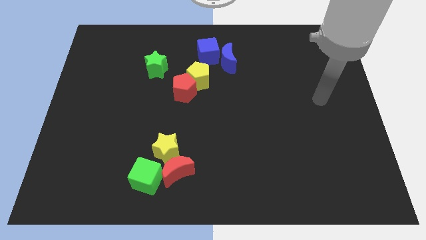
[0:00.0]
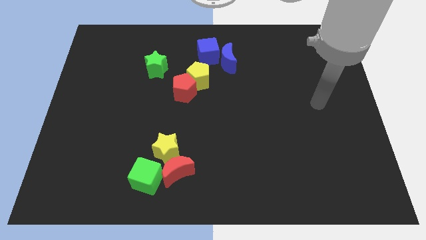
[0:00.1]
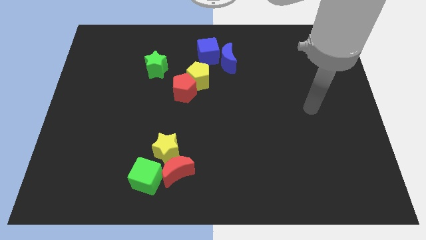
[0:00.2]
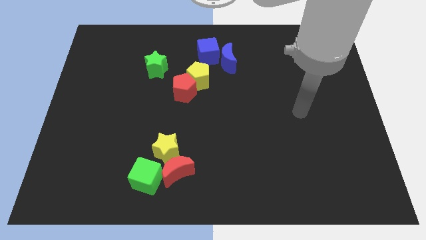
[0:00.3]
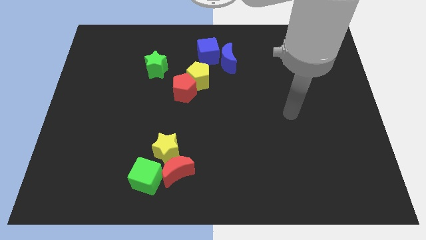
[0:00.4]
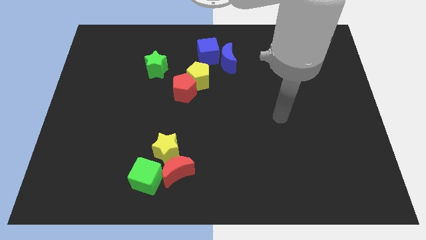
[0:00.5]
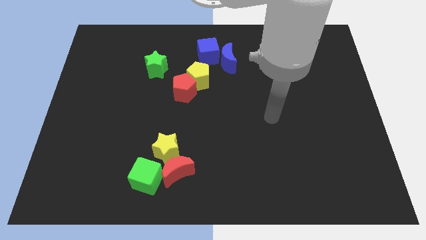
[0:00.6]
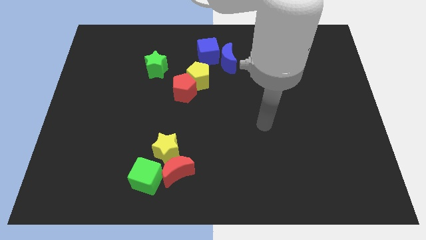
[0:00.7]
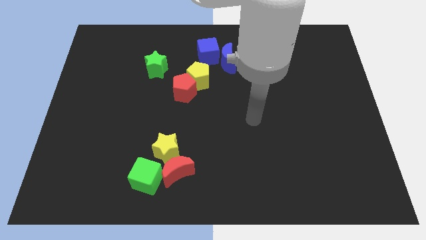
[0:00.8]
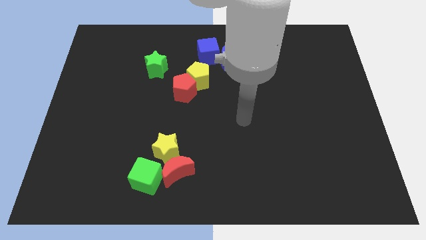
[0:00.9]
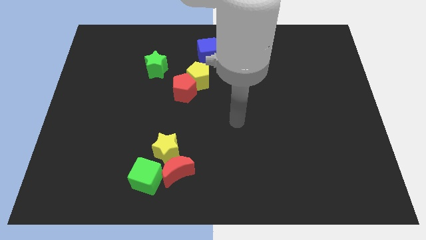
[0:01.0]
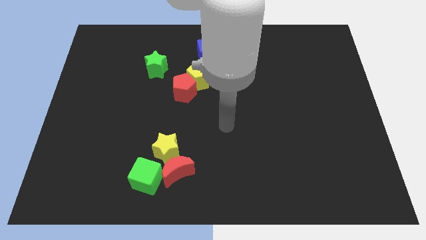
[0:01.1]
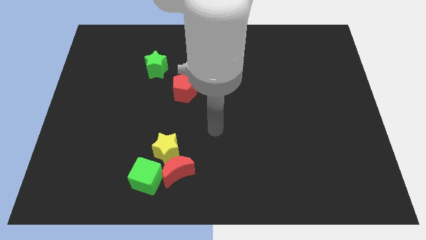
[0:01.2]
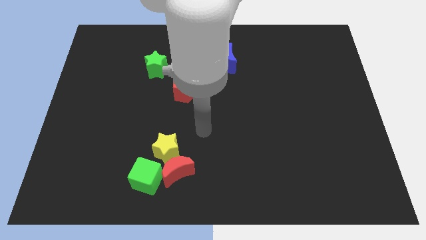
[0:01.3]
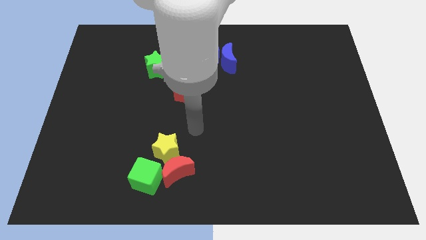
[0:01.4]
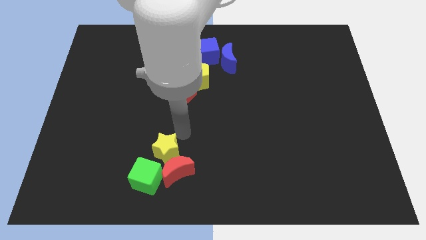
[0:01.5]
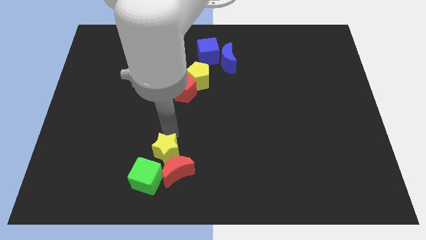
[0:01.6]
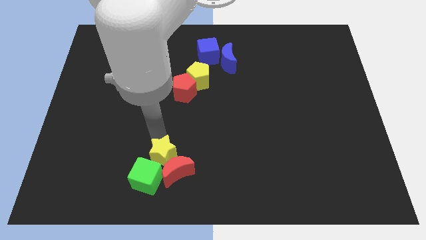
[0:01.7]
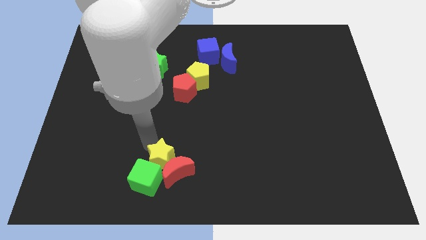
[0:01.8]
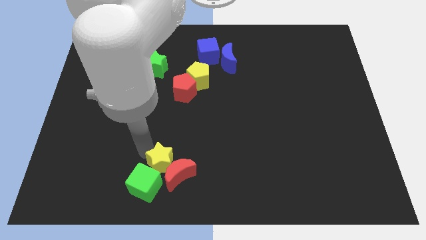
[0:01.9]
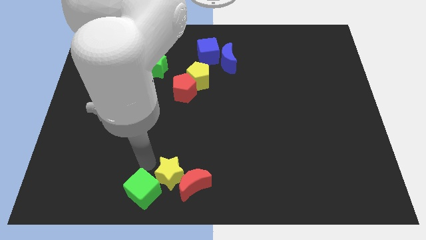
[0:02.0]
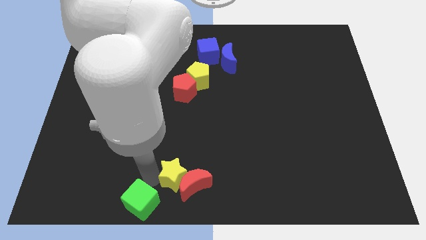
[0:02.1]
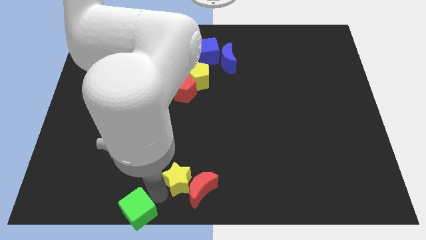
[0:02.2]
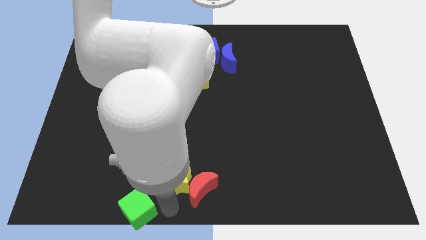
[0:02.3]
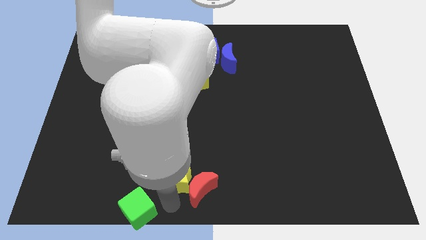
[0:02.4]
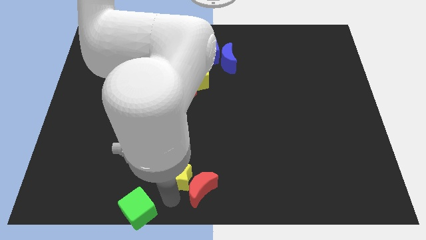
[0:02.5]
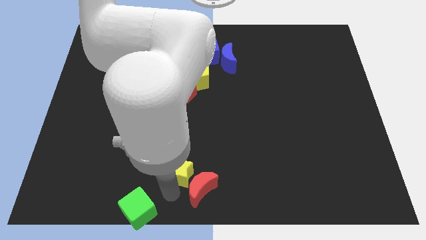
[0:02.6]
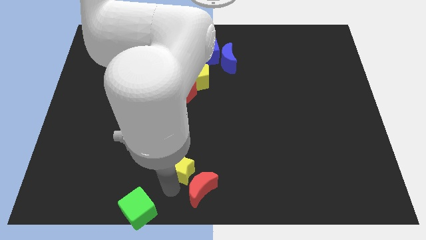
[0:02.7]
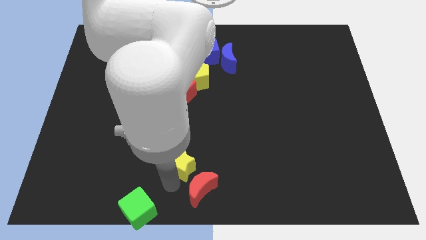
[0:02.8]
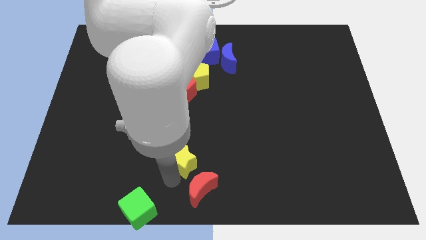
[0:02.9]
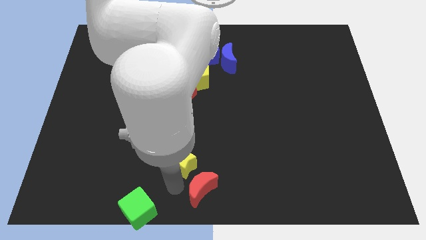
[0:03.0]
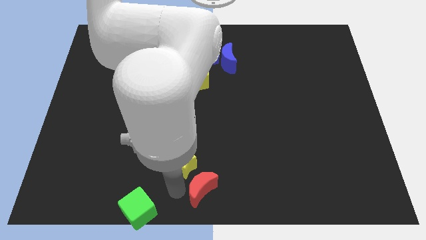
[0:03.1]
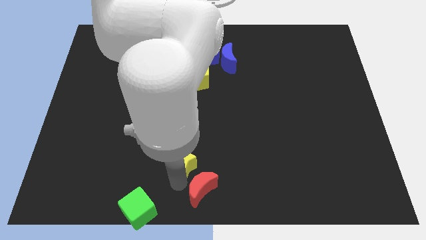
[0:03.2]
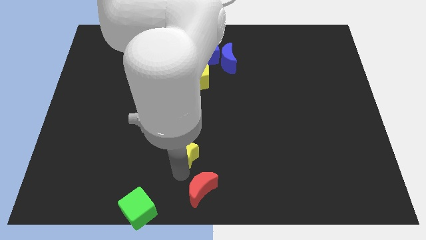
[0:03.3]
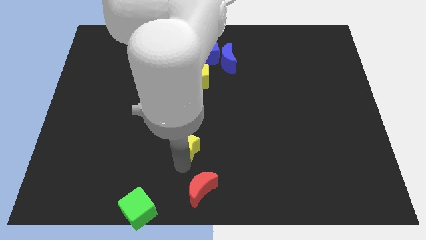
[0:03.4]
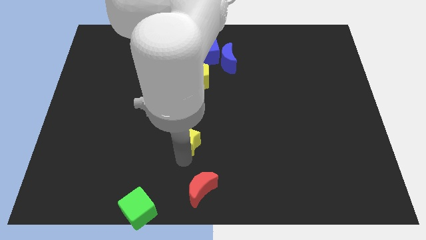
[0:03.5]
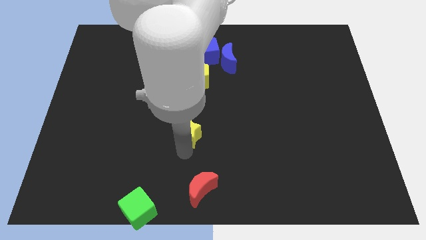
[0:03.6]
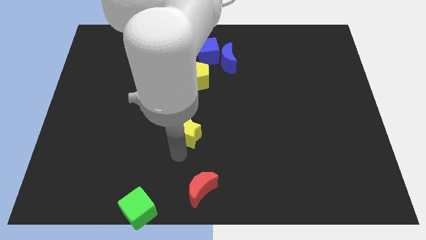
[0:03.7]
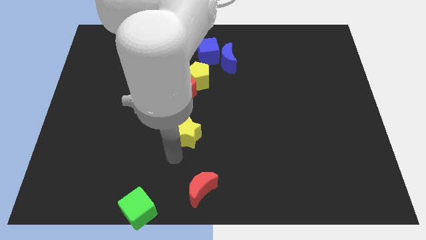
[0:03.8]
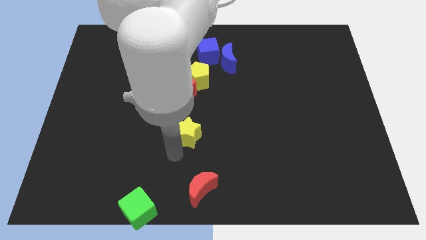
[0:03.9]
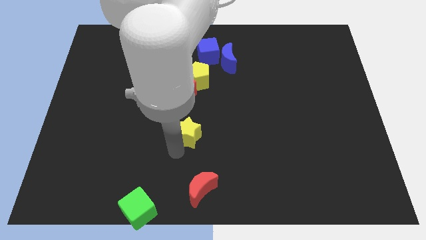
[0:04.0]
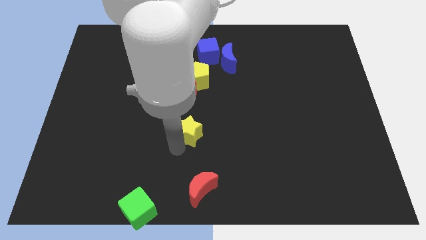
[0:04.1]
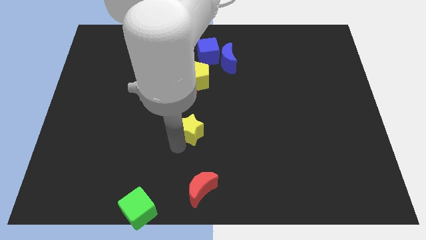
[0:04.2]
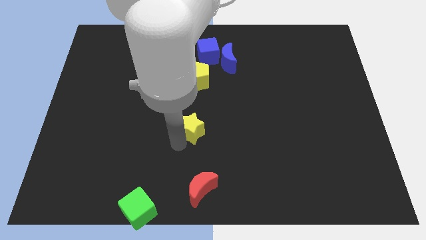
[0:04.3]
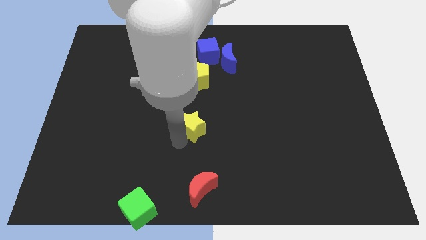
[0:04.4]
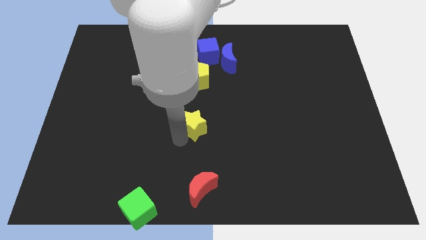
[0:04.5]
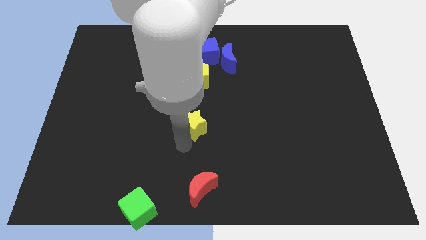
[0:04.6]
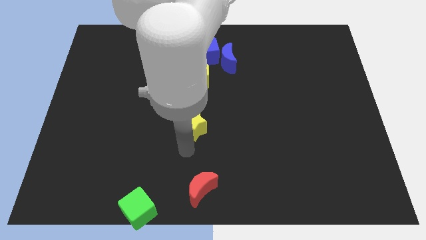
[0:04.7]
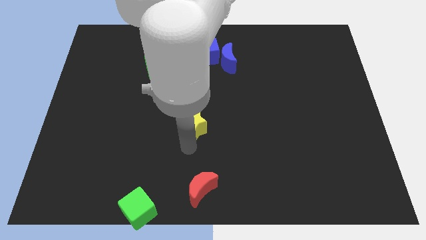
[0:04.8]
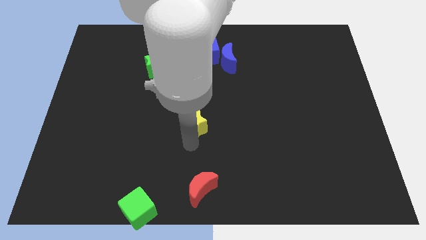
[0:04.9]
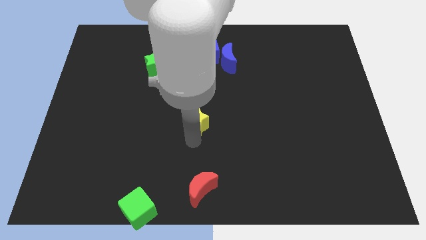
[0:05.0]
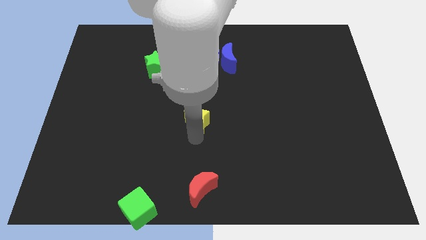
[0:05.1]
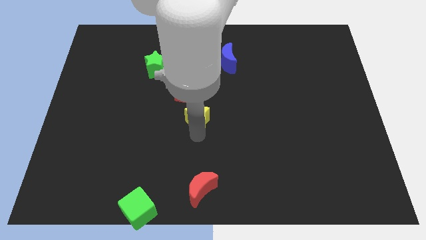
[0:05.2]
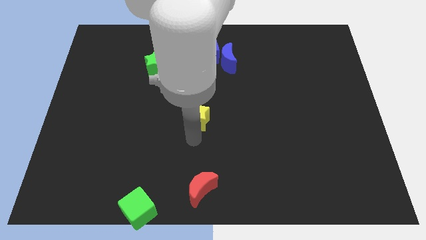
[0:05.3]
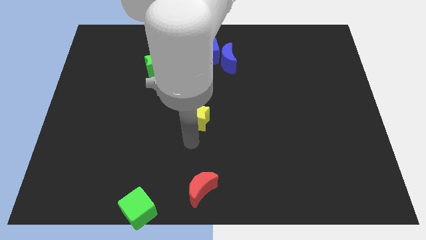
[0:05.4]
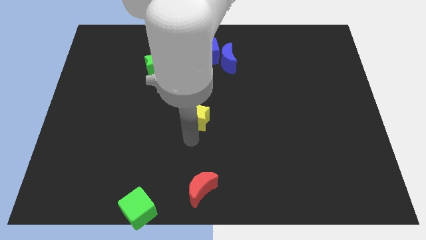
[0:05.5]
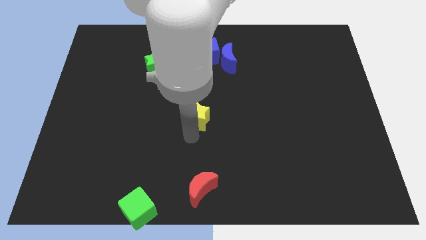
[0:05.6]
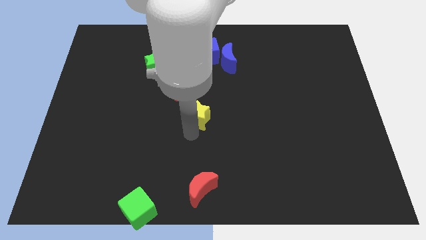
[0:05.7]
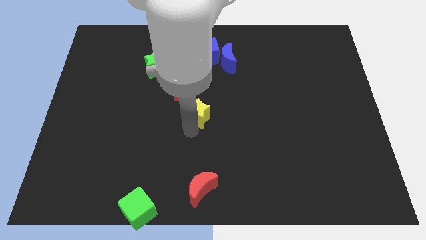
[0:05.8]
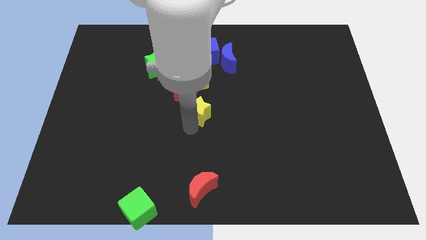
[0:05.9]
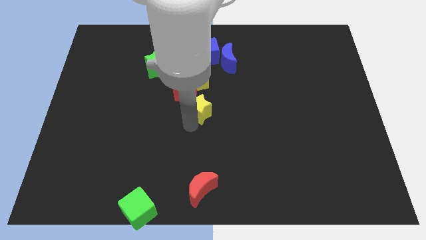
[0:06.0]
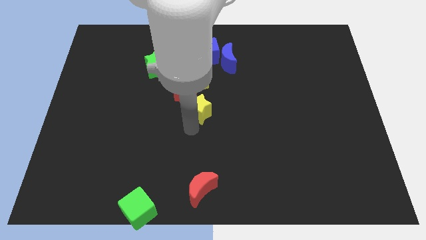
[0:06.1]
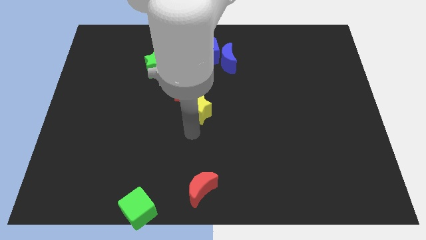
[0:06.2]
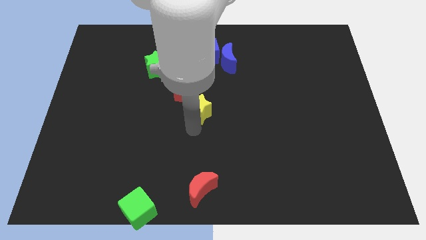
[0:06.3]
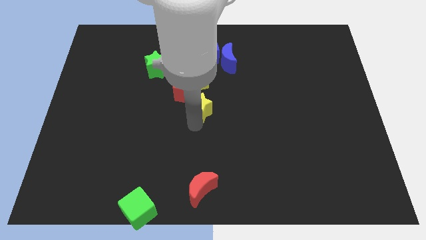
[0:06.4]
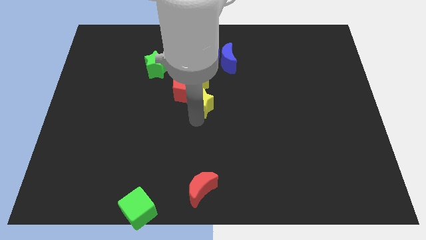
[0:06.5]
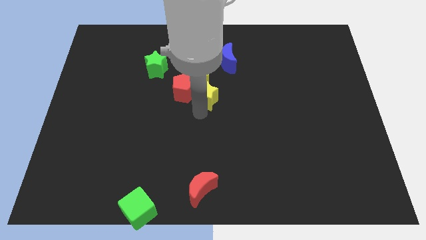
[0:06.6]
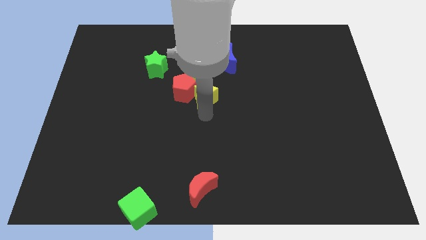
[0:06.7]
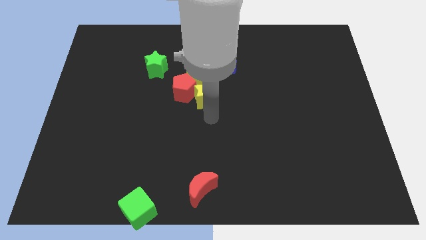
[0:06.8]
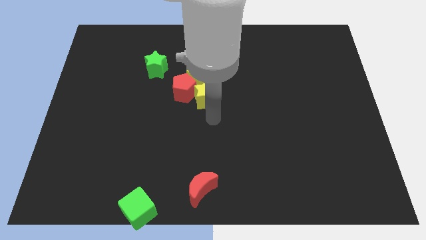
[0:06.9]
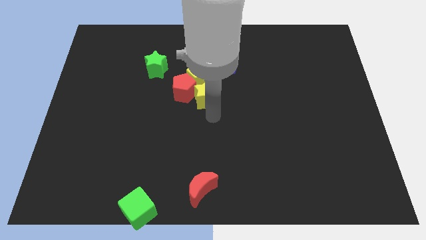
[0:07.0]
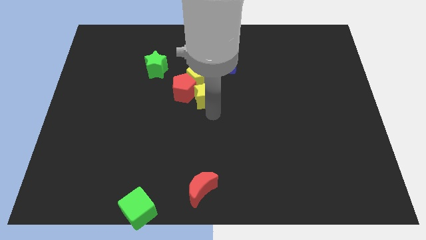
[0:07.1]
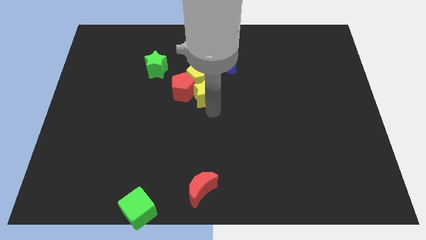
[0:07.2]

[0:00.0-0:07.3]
put the yellow star next to the yellow pentagon
